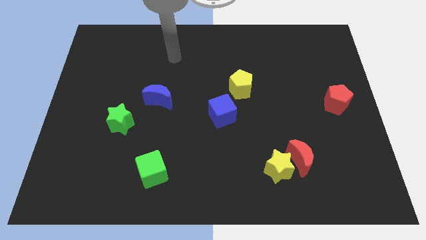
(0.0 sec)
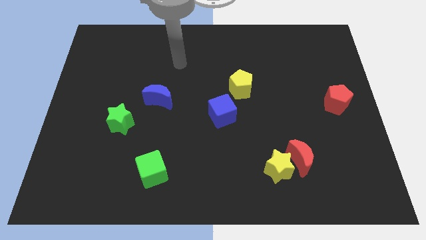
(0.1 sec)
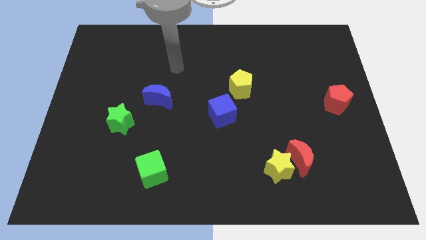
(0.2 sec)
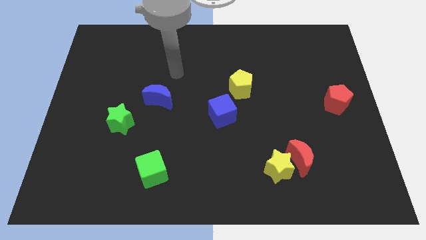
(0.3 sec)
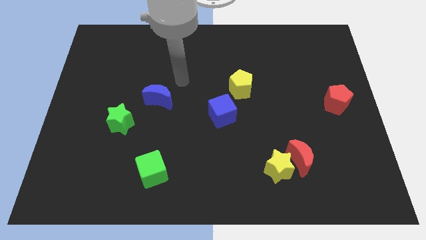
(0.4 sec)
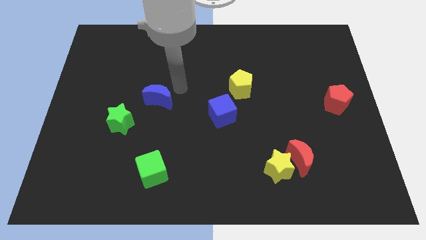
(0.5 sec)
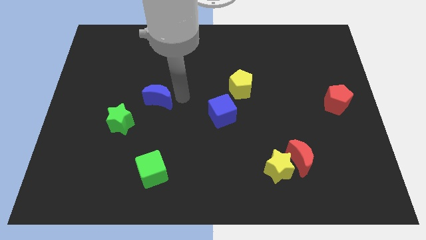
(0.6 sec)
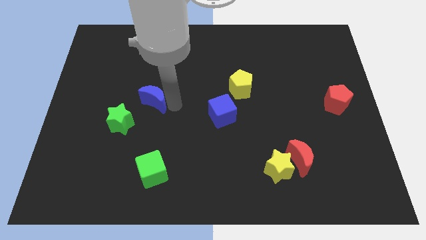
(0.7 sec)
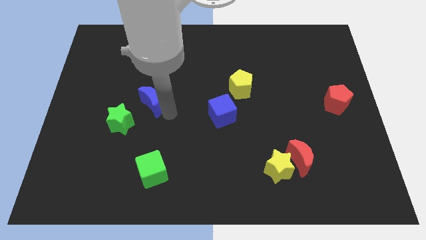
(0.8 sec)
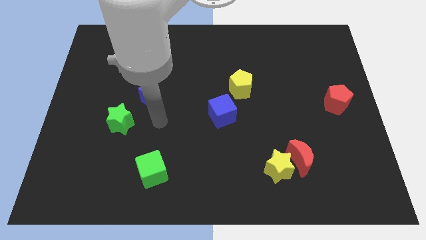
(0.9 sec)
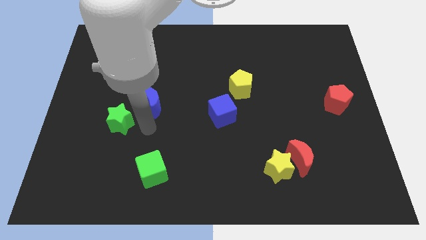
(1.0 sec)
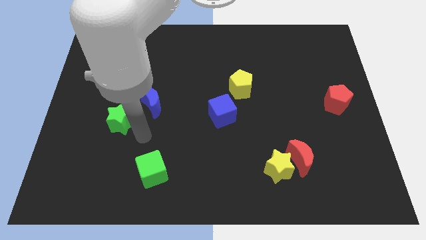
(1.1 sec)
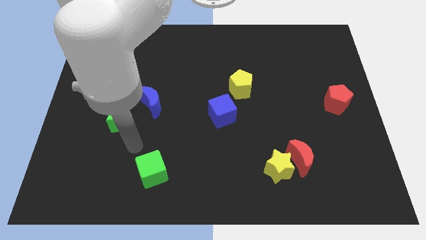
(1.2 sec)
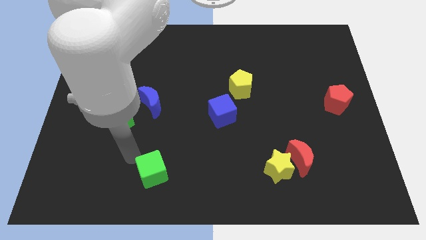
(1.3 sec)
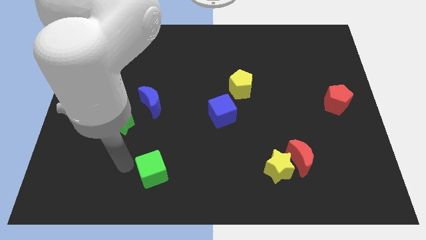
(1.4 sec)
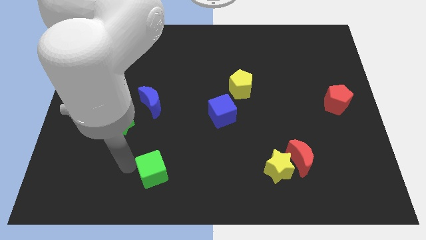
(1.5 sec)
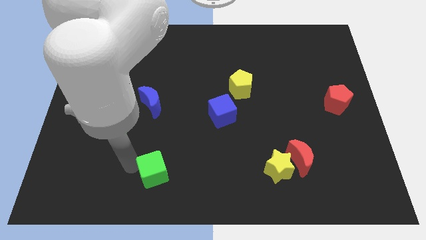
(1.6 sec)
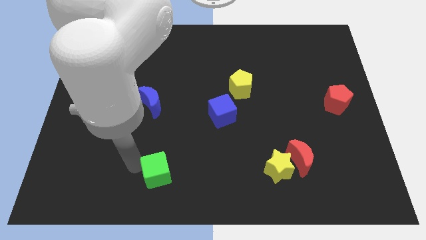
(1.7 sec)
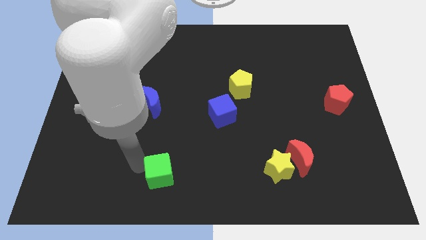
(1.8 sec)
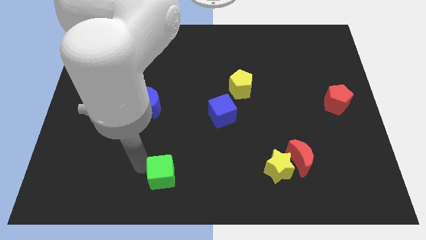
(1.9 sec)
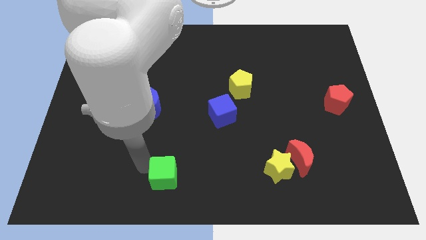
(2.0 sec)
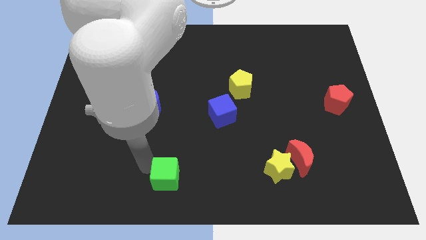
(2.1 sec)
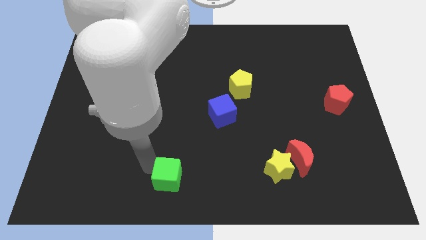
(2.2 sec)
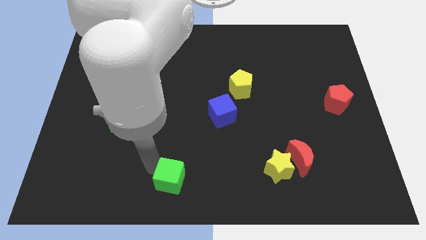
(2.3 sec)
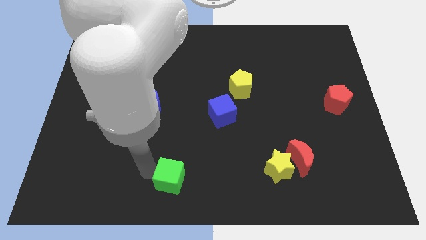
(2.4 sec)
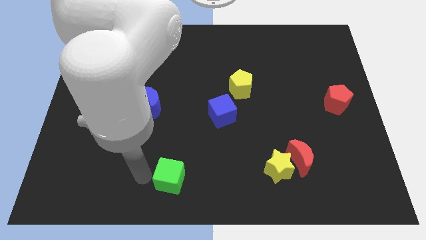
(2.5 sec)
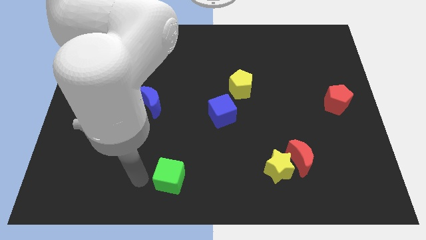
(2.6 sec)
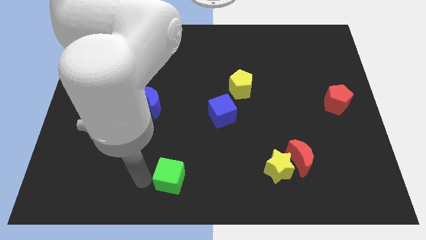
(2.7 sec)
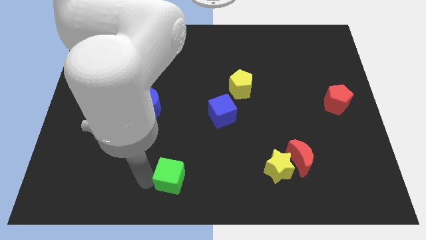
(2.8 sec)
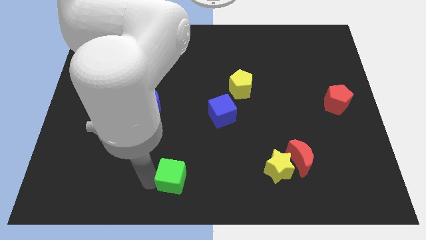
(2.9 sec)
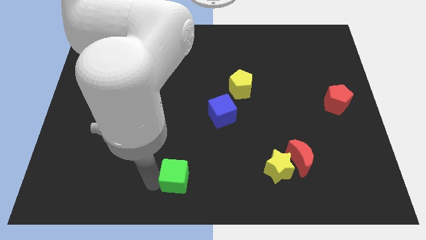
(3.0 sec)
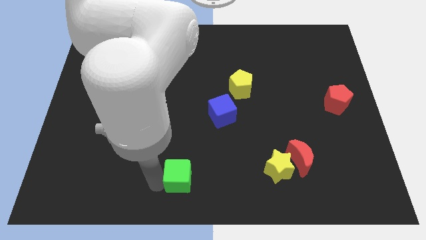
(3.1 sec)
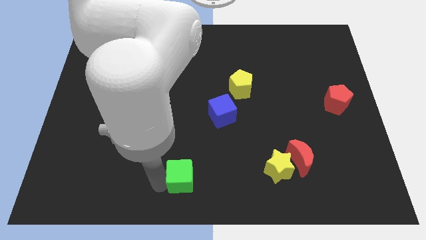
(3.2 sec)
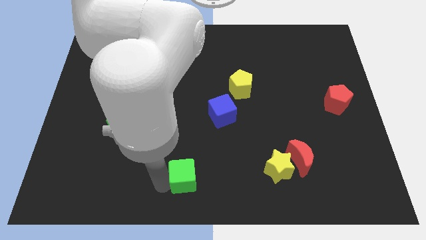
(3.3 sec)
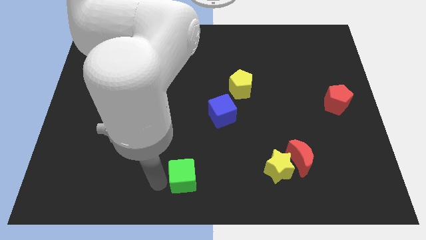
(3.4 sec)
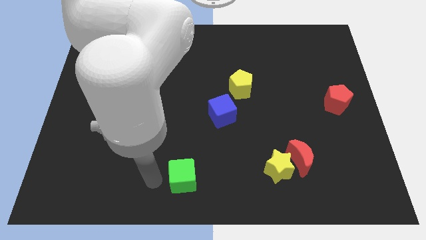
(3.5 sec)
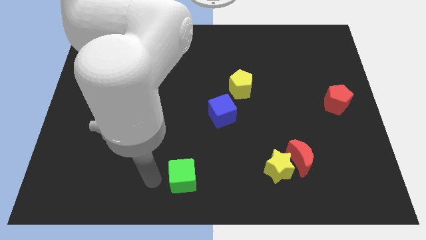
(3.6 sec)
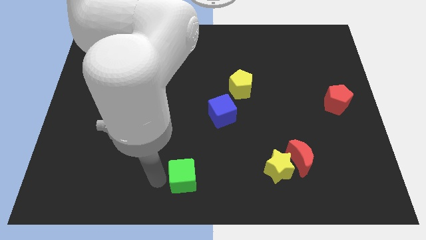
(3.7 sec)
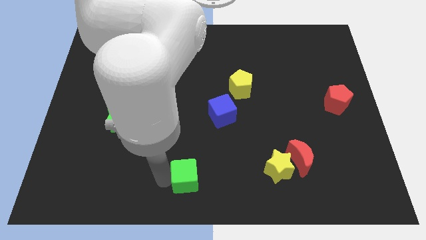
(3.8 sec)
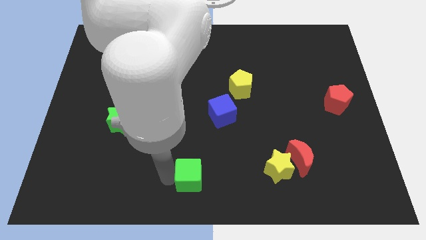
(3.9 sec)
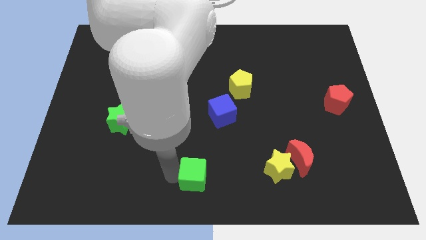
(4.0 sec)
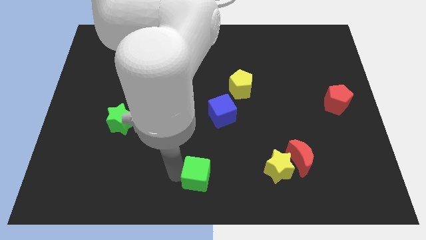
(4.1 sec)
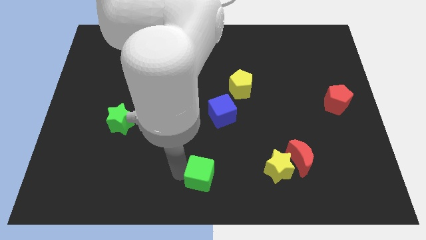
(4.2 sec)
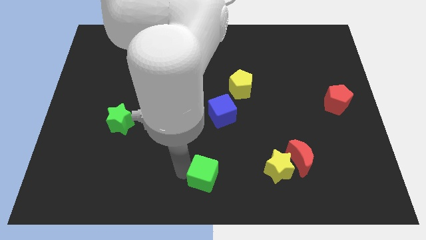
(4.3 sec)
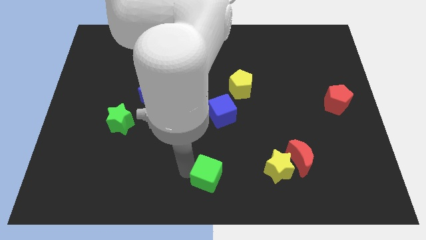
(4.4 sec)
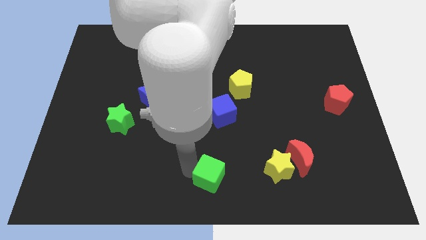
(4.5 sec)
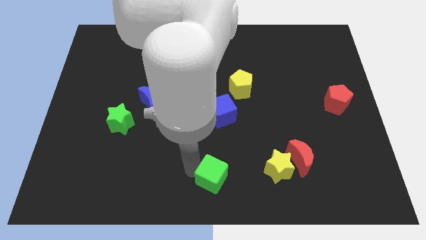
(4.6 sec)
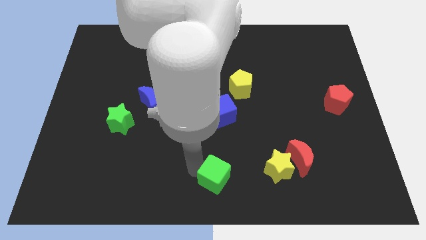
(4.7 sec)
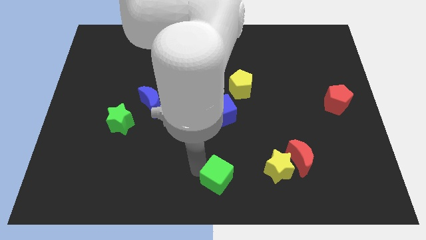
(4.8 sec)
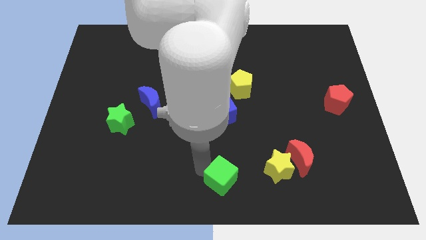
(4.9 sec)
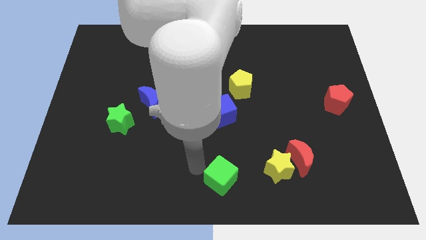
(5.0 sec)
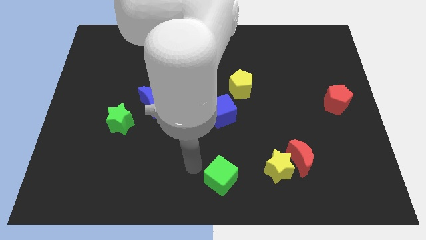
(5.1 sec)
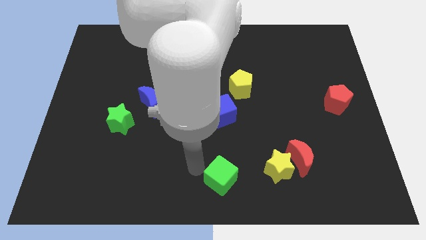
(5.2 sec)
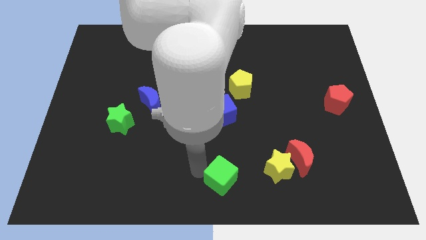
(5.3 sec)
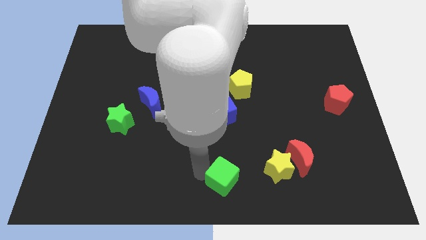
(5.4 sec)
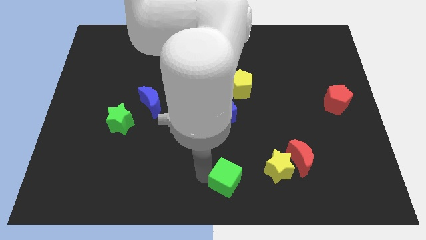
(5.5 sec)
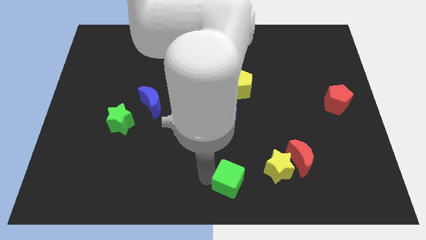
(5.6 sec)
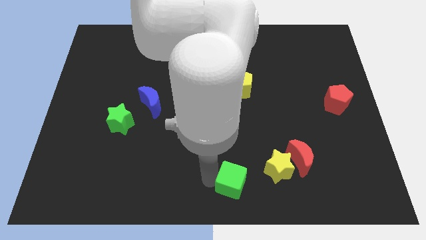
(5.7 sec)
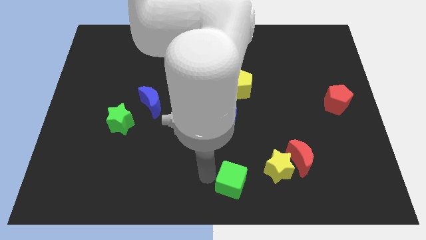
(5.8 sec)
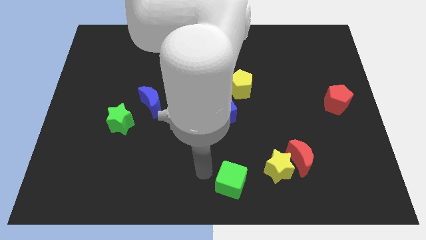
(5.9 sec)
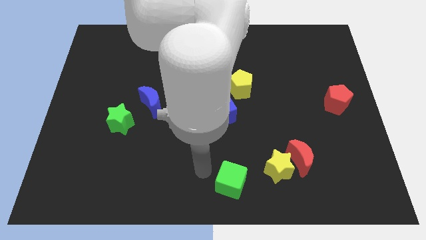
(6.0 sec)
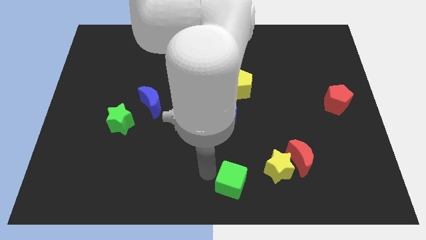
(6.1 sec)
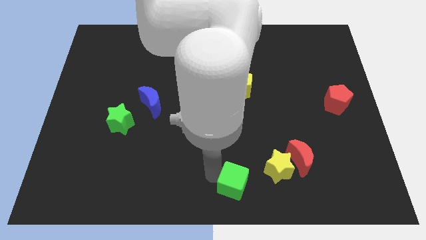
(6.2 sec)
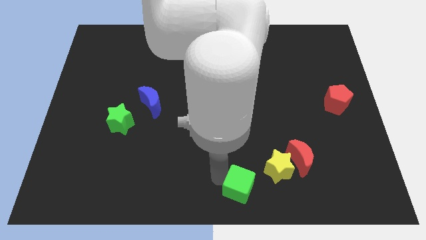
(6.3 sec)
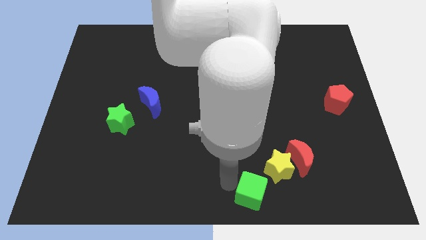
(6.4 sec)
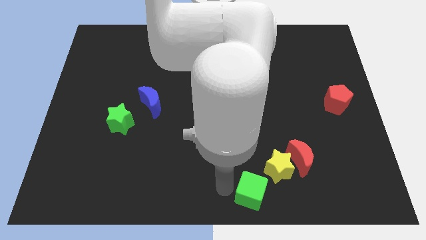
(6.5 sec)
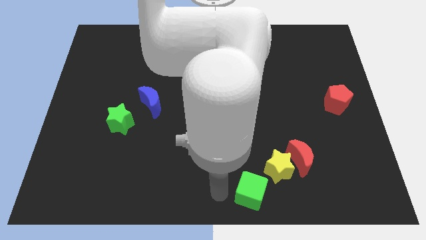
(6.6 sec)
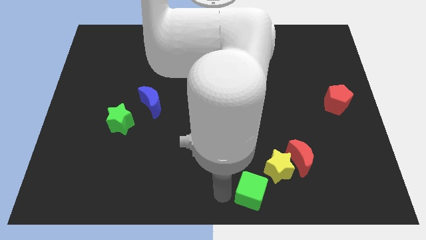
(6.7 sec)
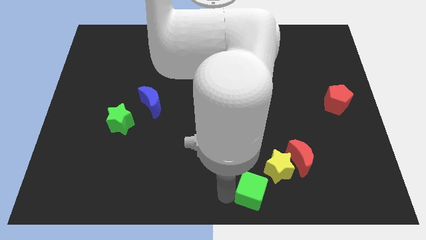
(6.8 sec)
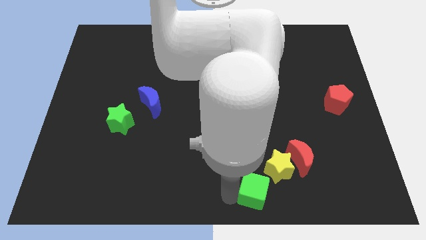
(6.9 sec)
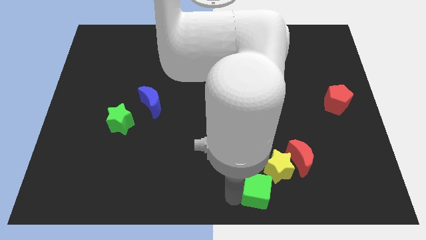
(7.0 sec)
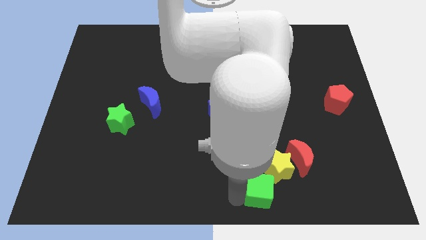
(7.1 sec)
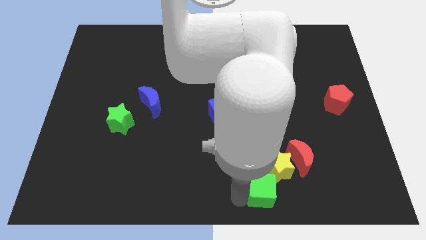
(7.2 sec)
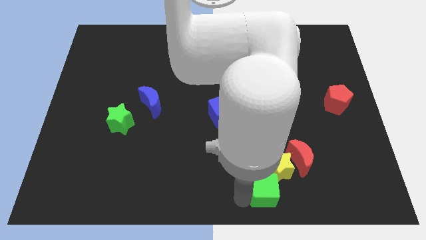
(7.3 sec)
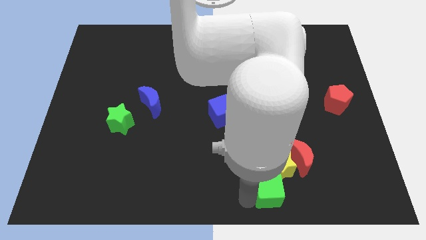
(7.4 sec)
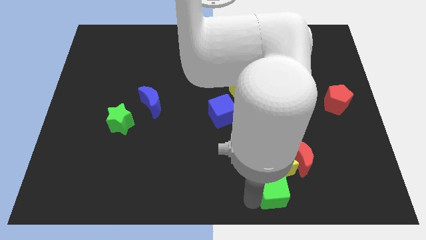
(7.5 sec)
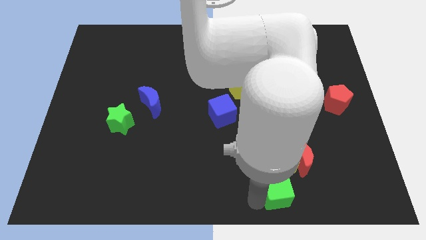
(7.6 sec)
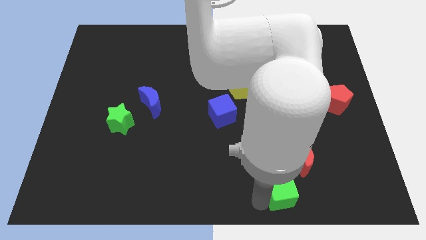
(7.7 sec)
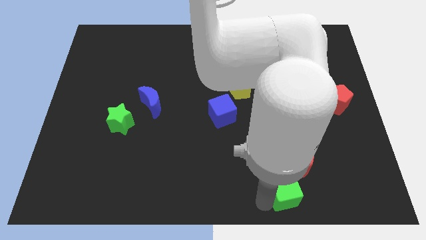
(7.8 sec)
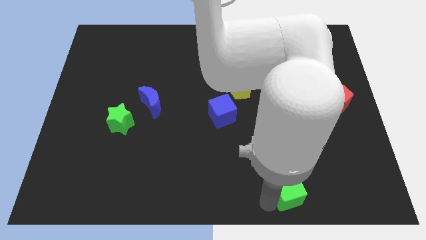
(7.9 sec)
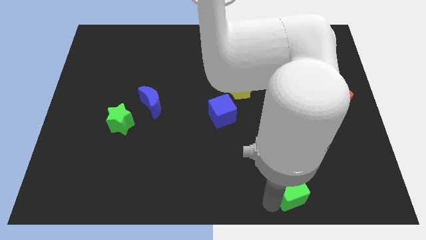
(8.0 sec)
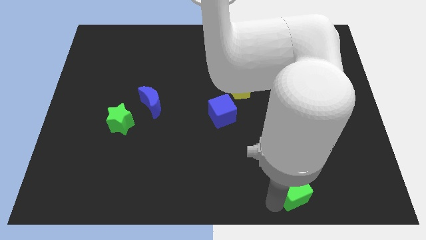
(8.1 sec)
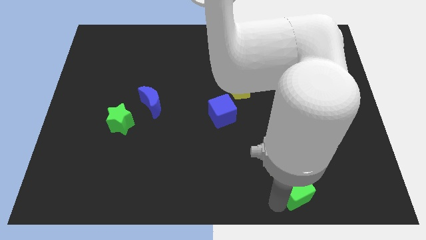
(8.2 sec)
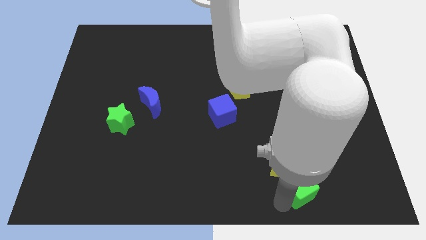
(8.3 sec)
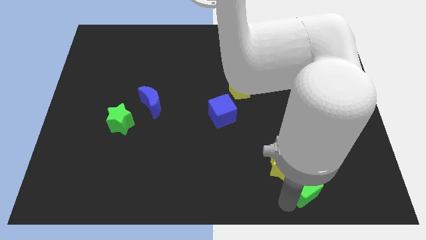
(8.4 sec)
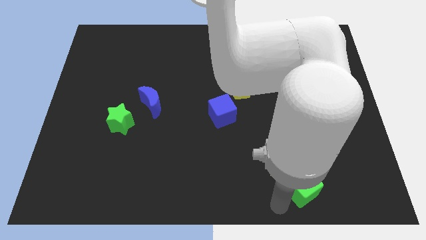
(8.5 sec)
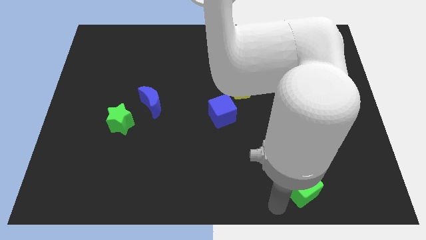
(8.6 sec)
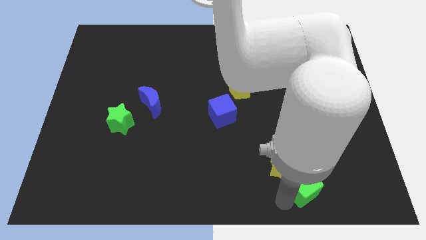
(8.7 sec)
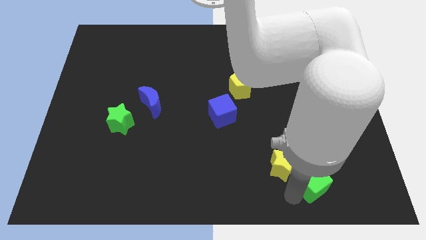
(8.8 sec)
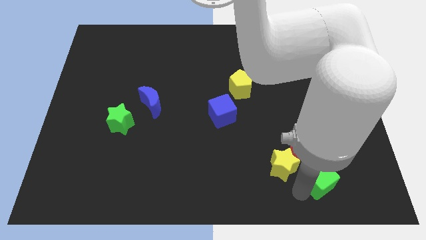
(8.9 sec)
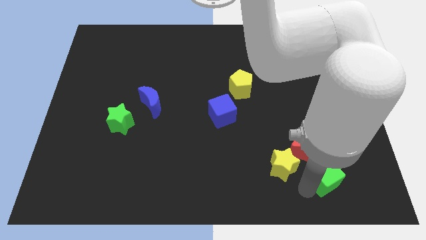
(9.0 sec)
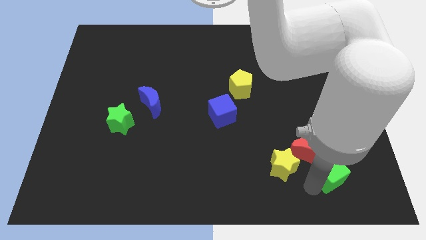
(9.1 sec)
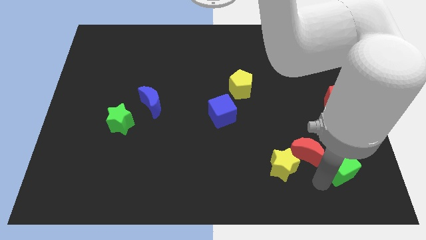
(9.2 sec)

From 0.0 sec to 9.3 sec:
move the green cube to the right of the red moon
